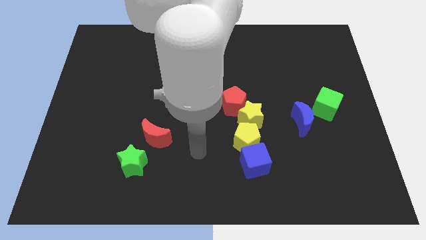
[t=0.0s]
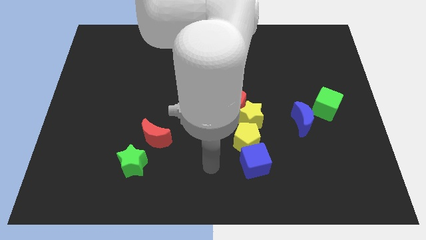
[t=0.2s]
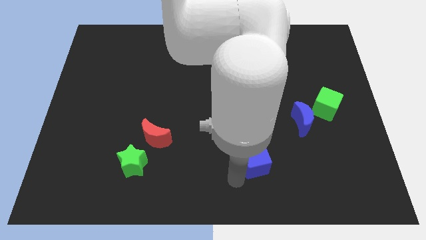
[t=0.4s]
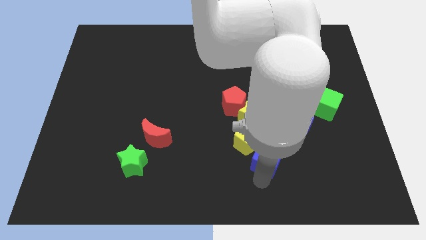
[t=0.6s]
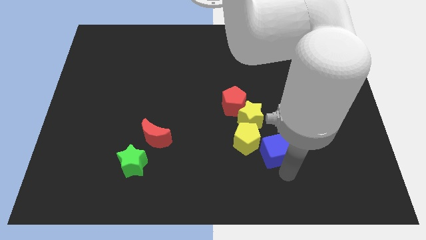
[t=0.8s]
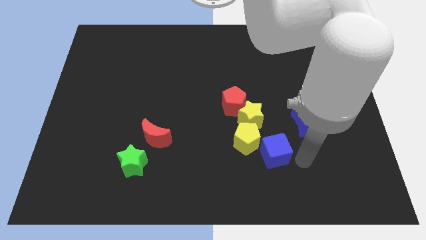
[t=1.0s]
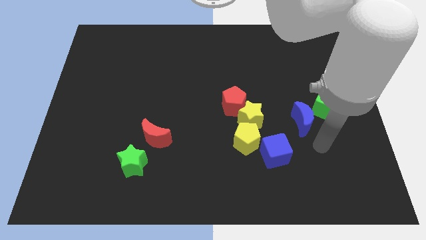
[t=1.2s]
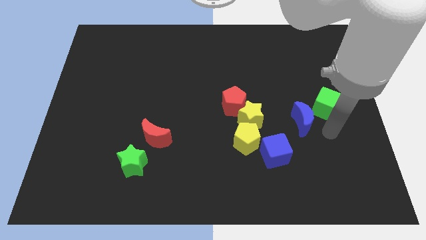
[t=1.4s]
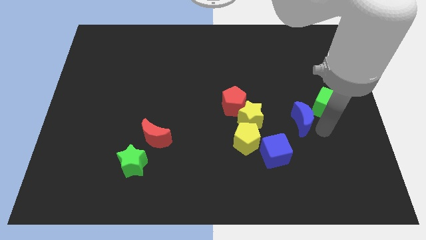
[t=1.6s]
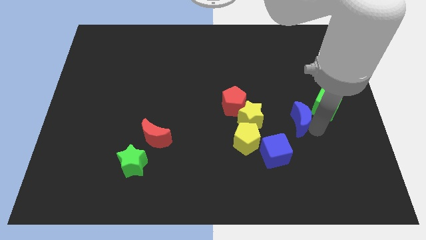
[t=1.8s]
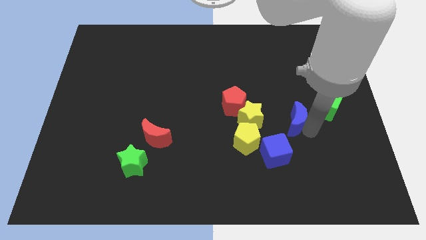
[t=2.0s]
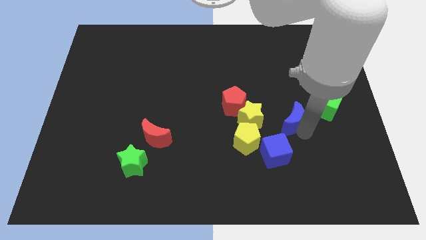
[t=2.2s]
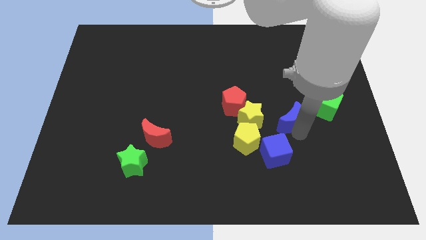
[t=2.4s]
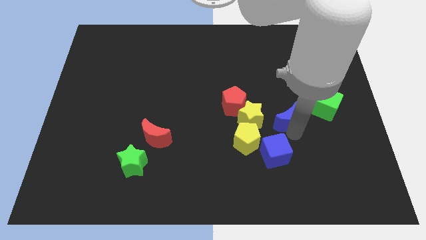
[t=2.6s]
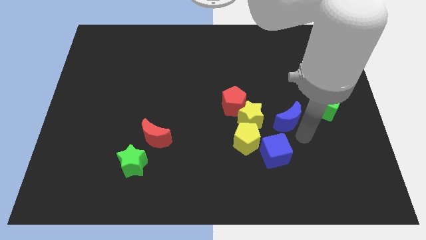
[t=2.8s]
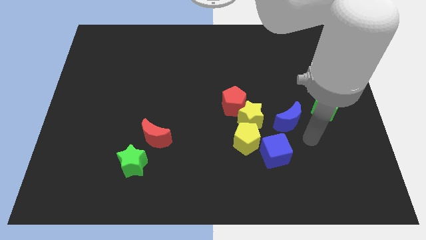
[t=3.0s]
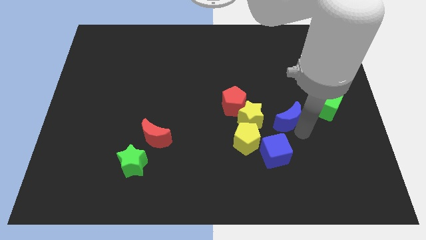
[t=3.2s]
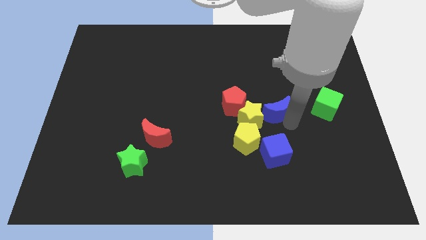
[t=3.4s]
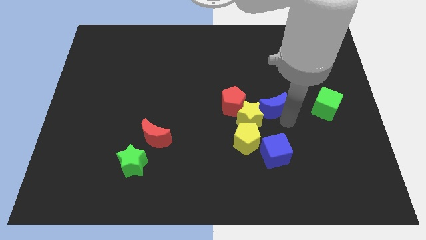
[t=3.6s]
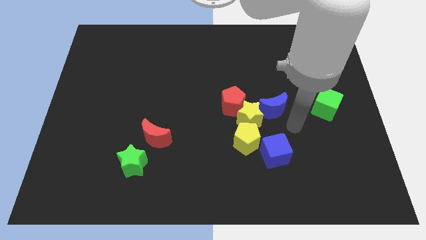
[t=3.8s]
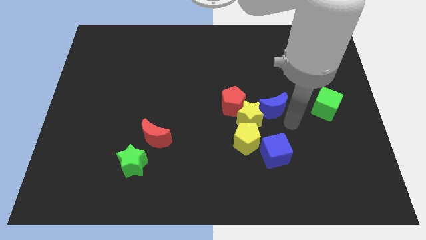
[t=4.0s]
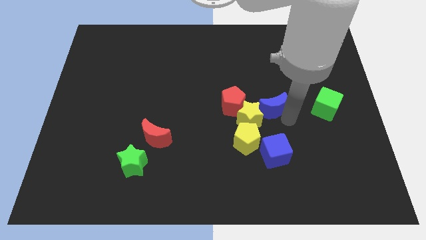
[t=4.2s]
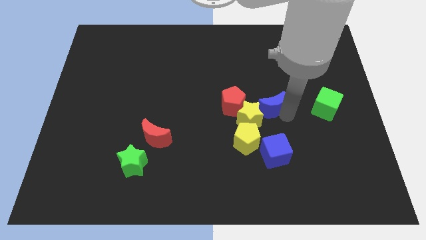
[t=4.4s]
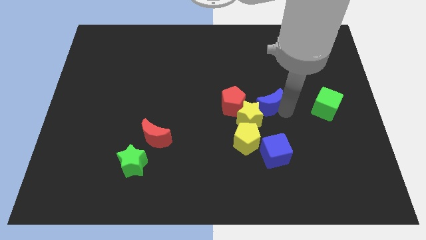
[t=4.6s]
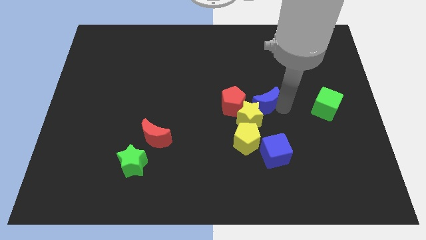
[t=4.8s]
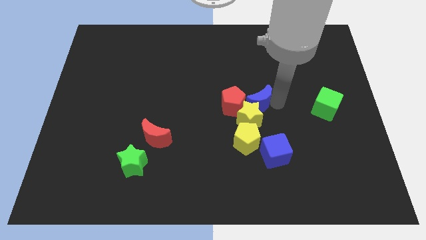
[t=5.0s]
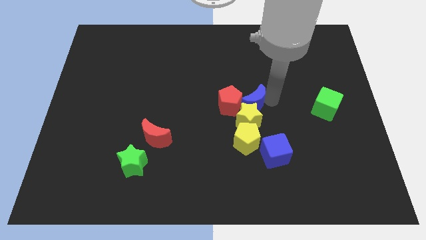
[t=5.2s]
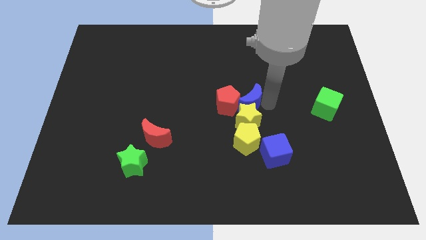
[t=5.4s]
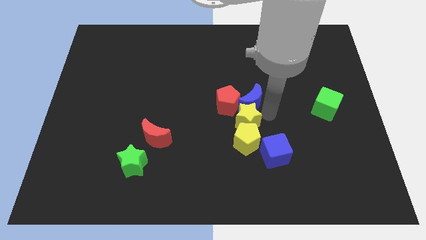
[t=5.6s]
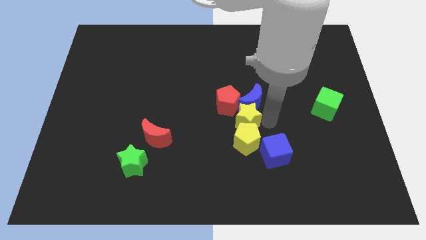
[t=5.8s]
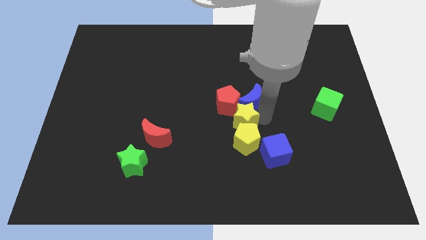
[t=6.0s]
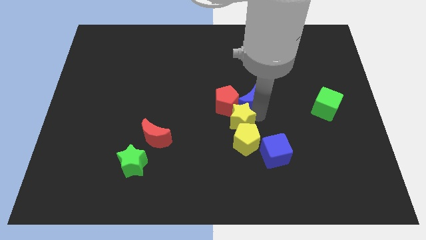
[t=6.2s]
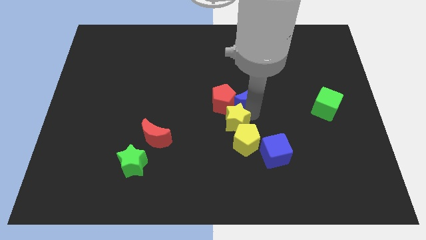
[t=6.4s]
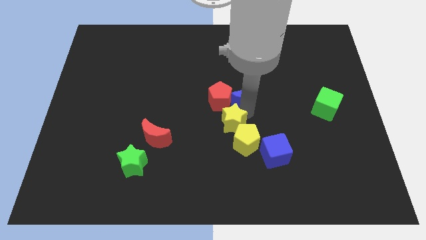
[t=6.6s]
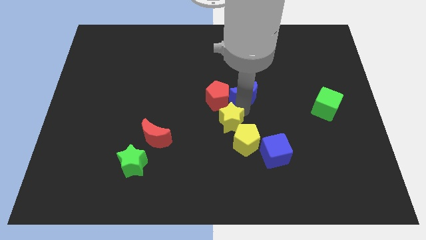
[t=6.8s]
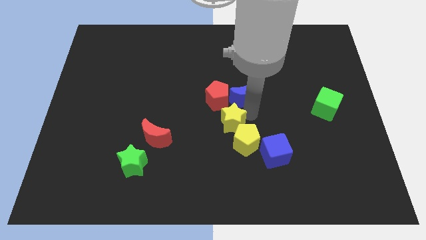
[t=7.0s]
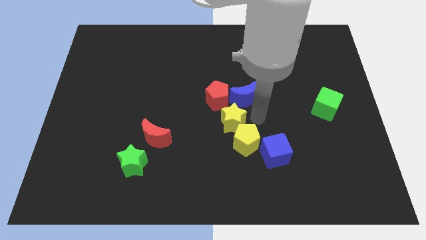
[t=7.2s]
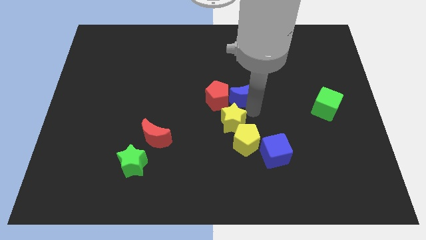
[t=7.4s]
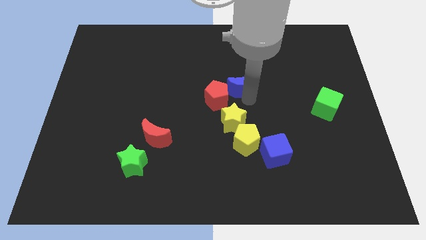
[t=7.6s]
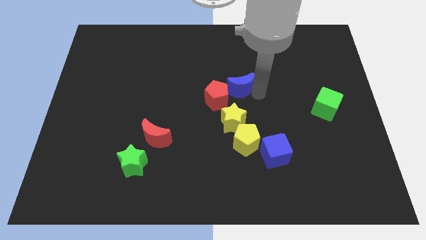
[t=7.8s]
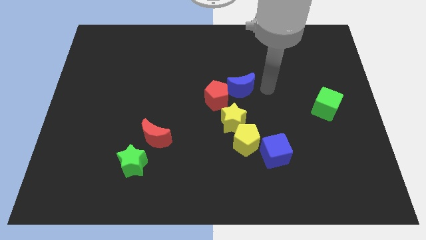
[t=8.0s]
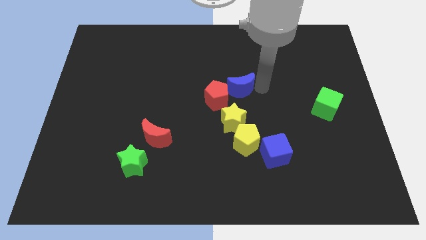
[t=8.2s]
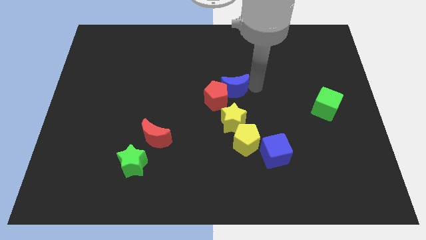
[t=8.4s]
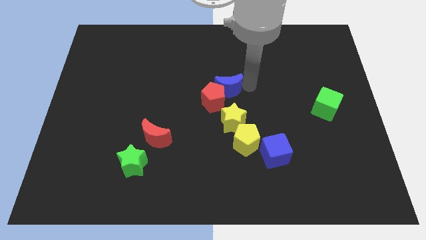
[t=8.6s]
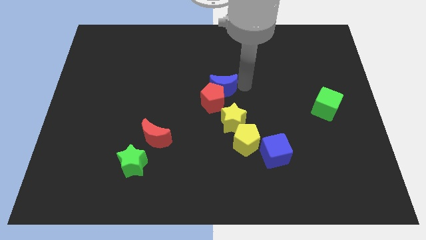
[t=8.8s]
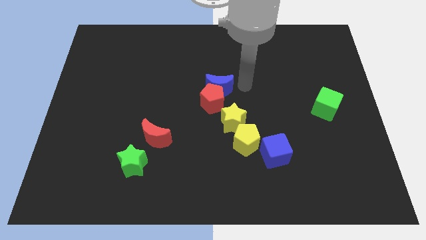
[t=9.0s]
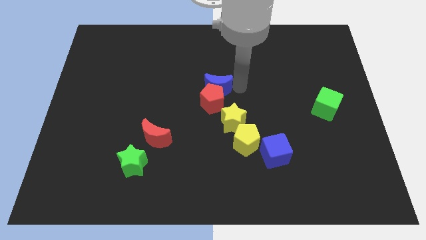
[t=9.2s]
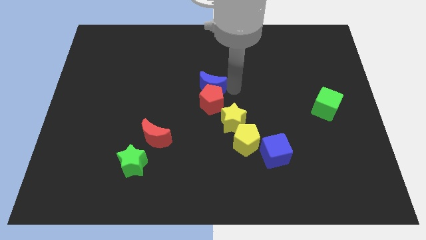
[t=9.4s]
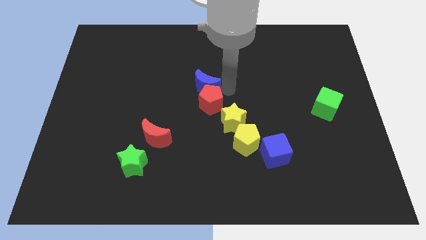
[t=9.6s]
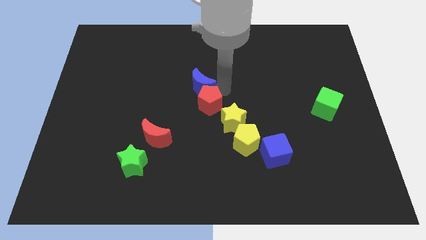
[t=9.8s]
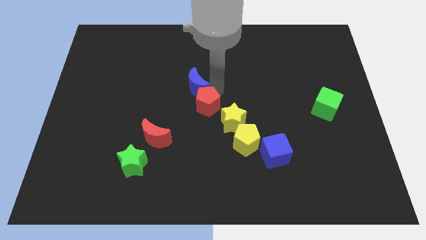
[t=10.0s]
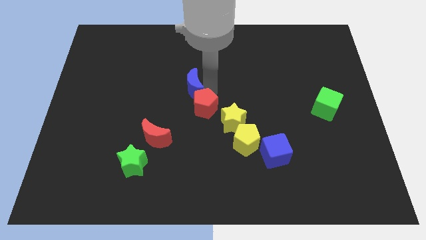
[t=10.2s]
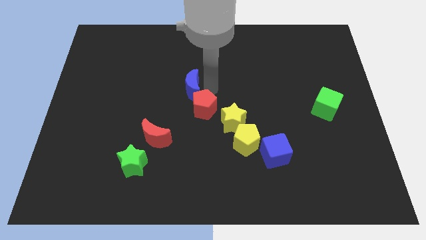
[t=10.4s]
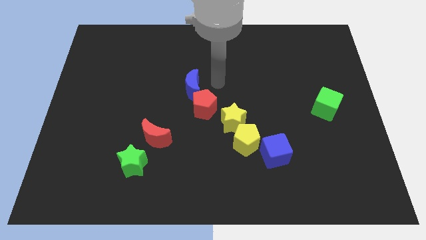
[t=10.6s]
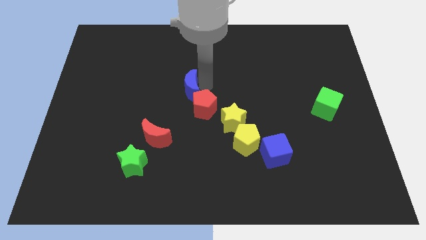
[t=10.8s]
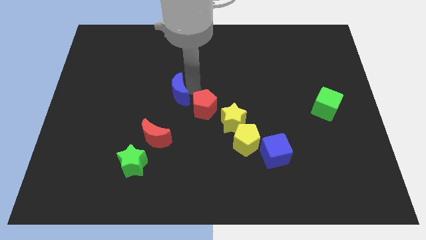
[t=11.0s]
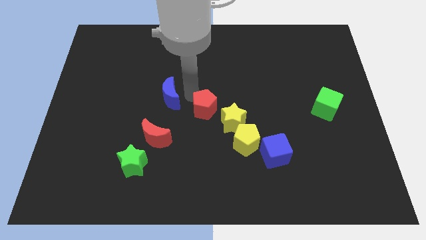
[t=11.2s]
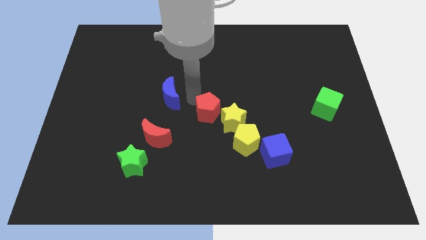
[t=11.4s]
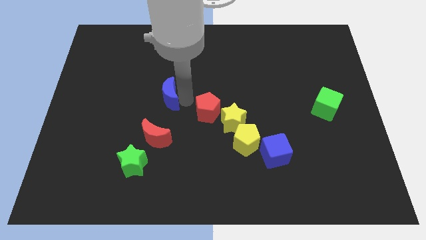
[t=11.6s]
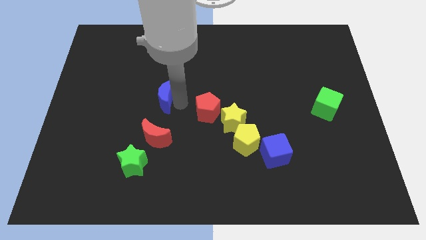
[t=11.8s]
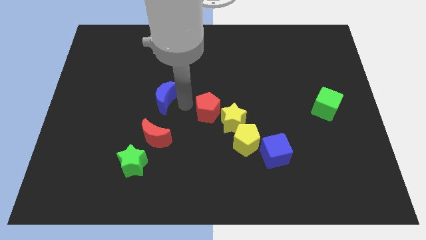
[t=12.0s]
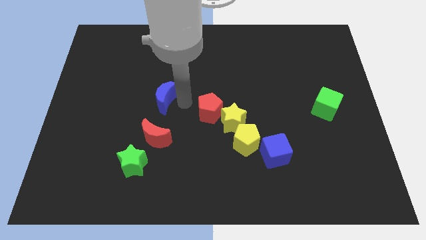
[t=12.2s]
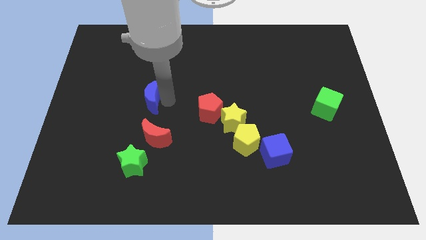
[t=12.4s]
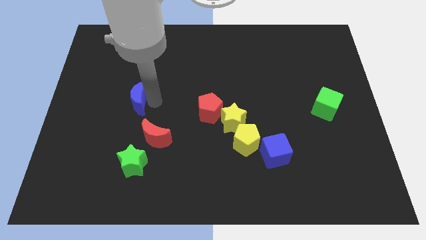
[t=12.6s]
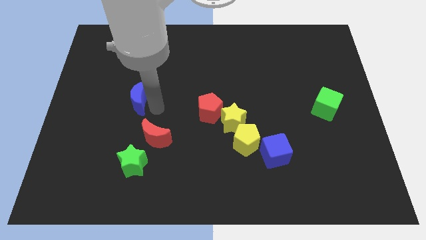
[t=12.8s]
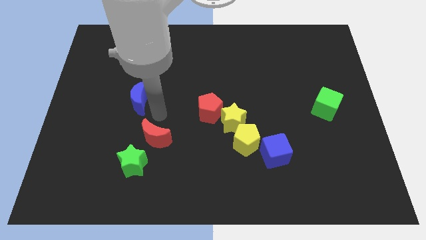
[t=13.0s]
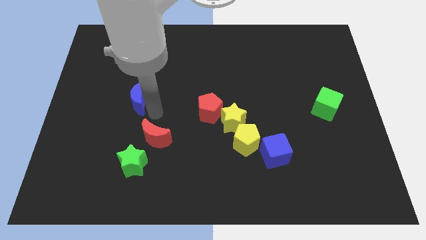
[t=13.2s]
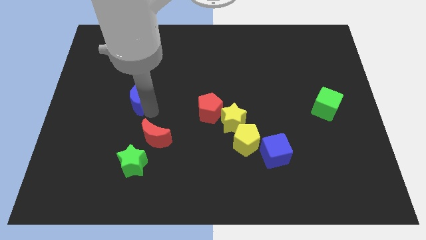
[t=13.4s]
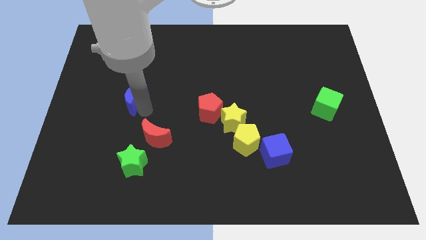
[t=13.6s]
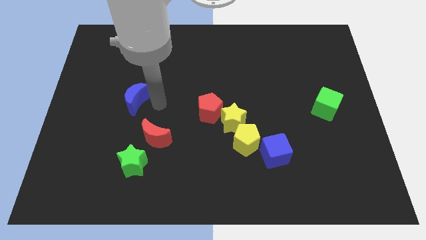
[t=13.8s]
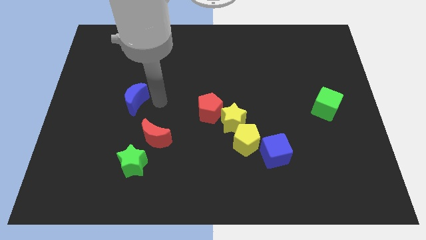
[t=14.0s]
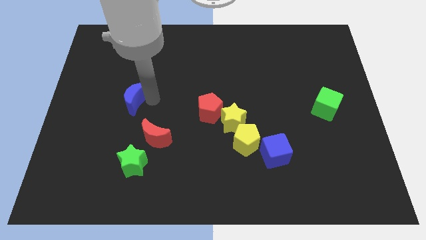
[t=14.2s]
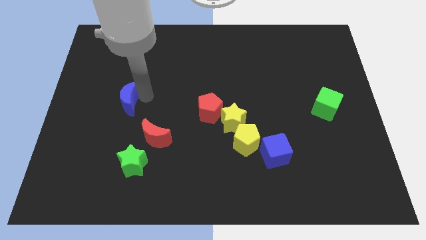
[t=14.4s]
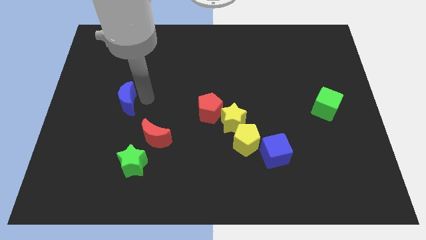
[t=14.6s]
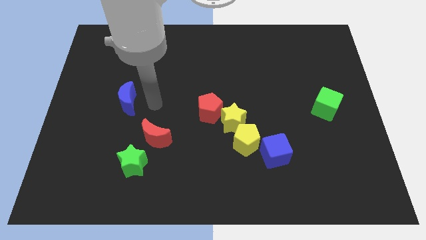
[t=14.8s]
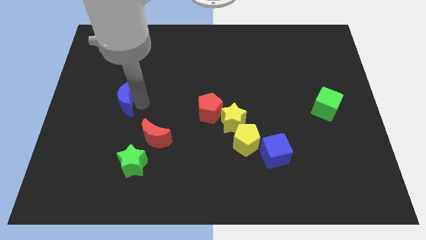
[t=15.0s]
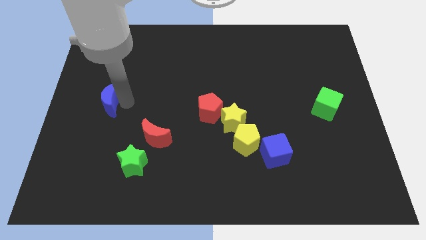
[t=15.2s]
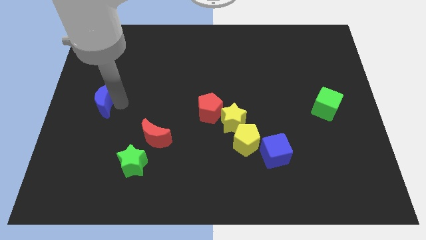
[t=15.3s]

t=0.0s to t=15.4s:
slide the blue moon to the left side
